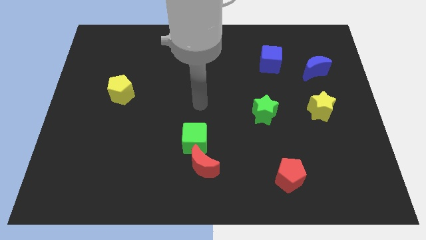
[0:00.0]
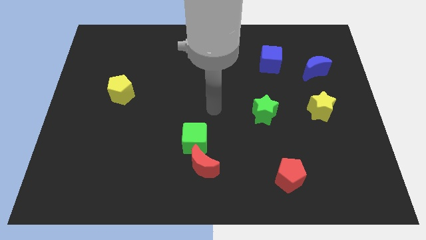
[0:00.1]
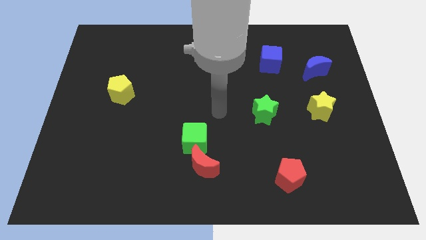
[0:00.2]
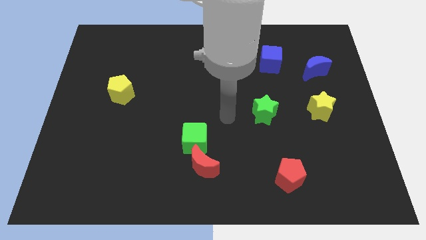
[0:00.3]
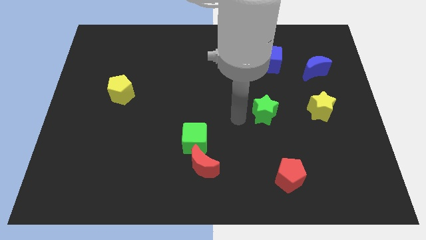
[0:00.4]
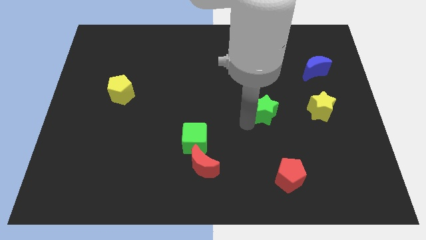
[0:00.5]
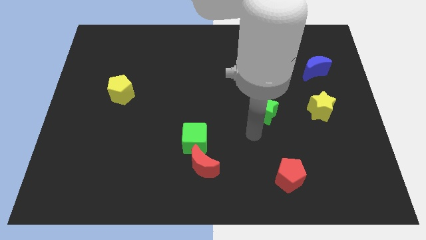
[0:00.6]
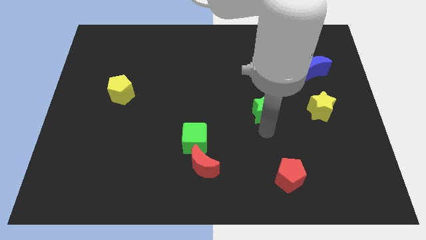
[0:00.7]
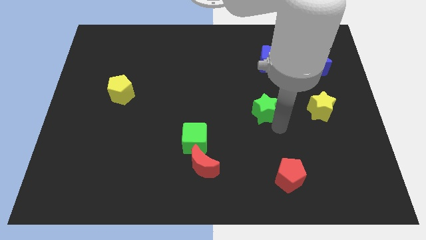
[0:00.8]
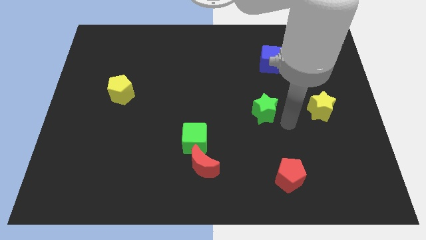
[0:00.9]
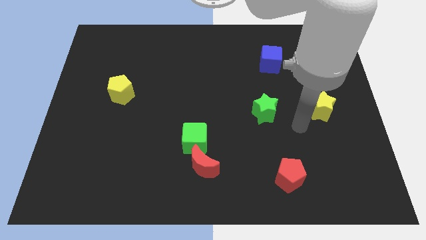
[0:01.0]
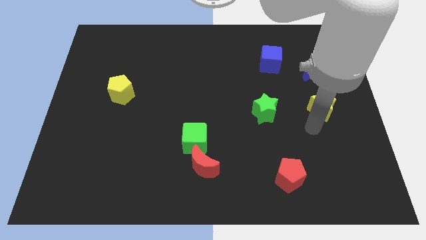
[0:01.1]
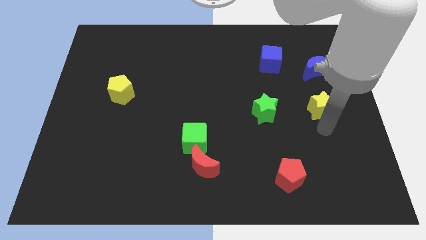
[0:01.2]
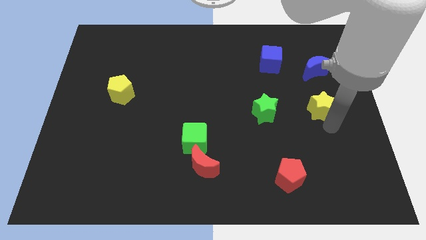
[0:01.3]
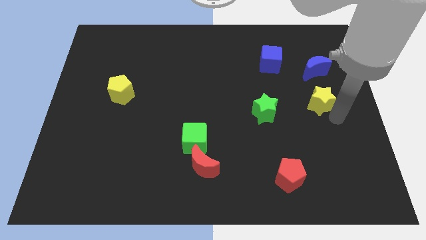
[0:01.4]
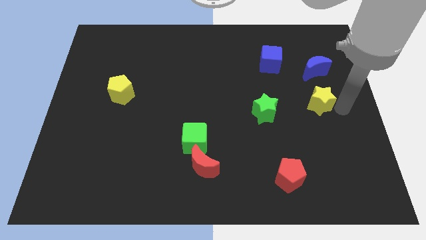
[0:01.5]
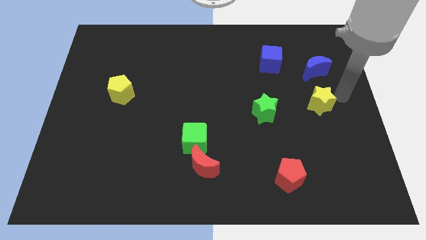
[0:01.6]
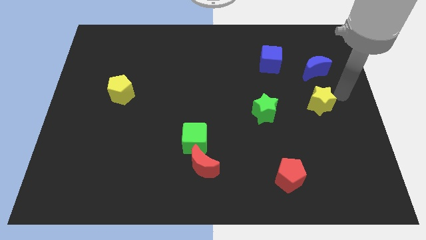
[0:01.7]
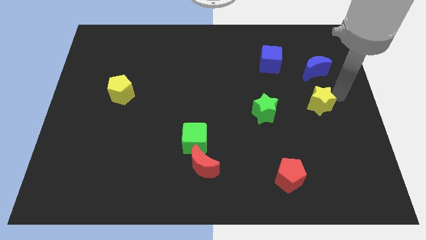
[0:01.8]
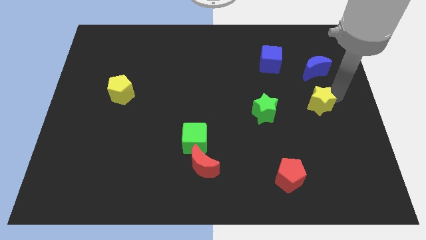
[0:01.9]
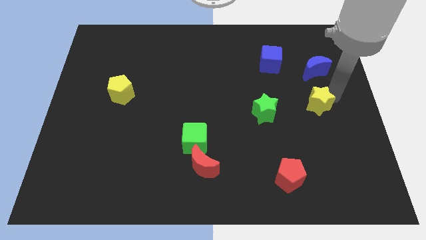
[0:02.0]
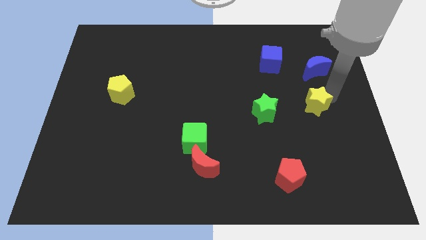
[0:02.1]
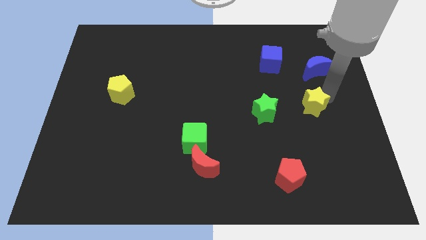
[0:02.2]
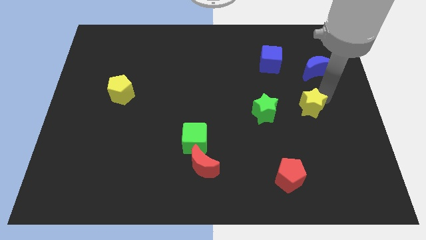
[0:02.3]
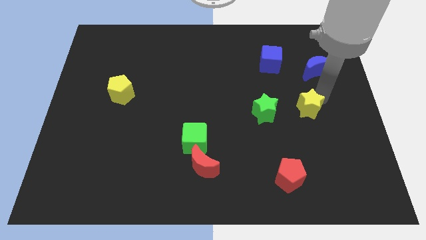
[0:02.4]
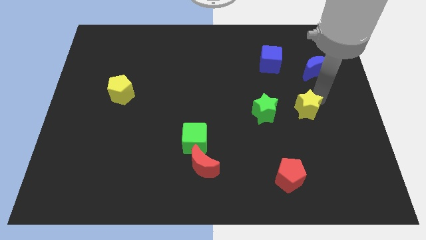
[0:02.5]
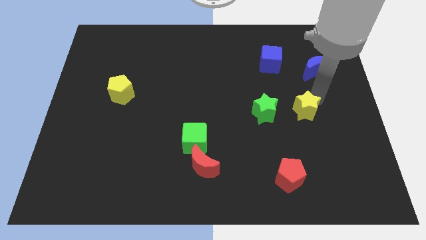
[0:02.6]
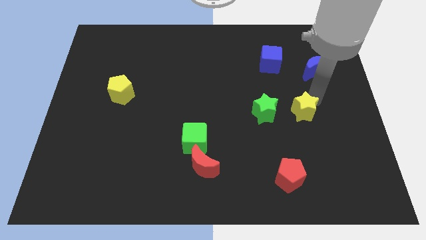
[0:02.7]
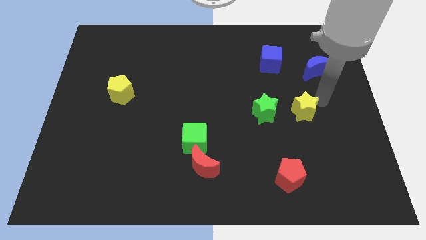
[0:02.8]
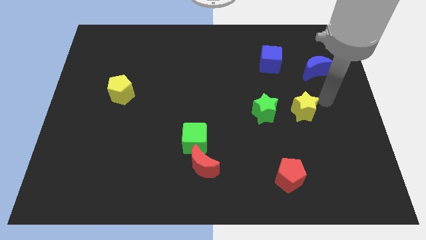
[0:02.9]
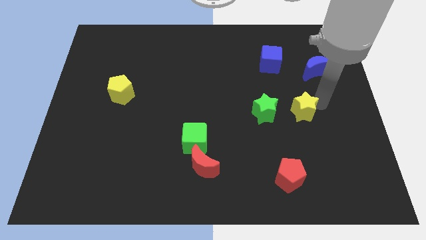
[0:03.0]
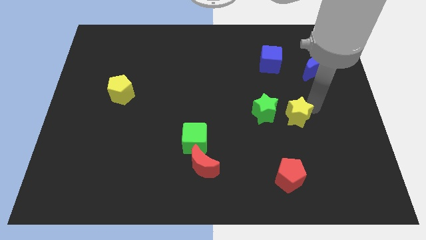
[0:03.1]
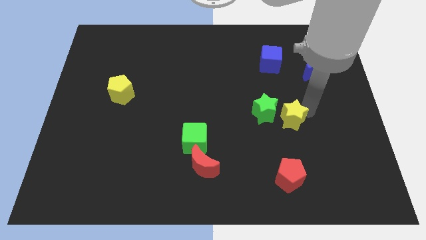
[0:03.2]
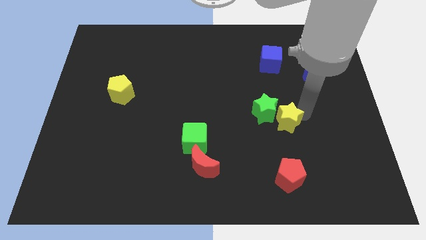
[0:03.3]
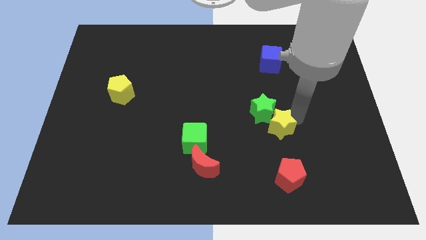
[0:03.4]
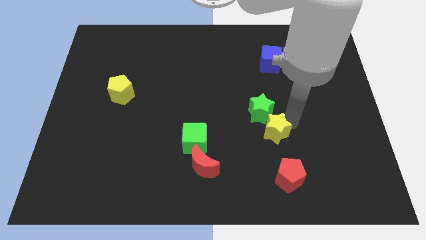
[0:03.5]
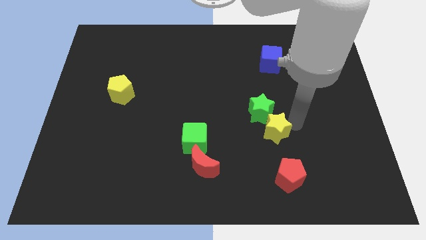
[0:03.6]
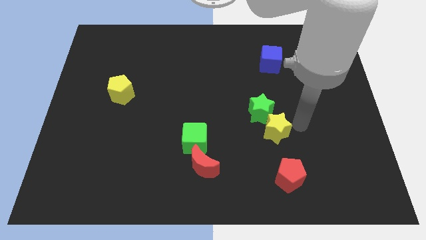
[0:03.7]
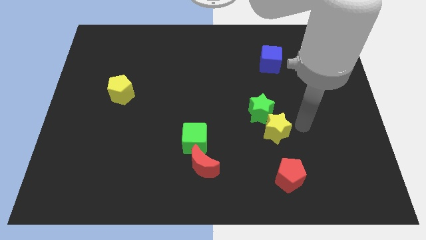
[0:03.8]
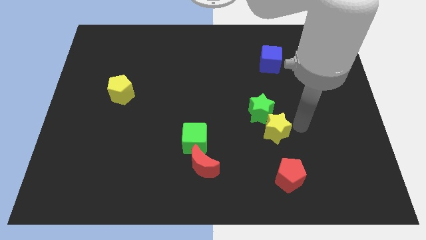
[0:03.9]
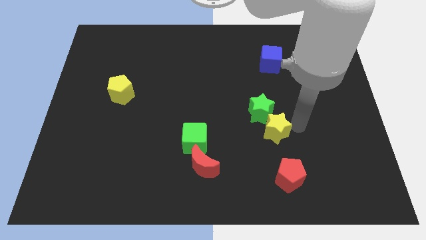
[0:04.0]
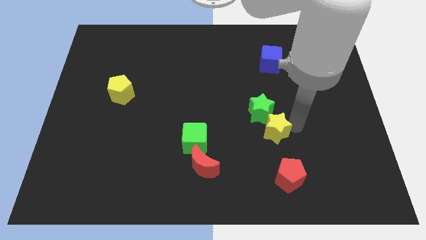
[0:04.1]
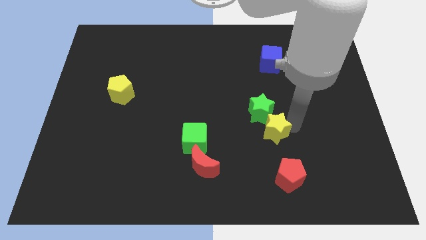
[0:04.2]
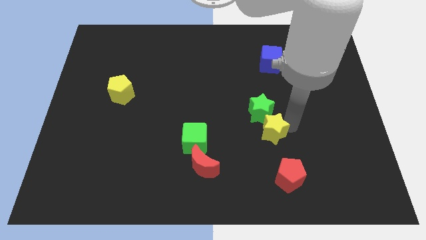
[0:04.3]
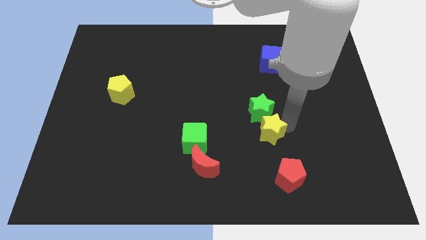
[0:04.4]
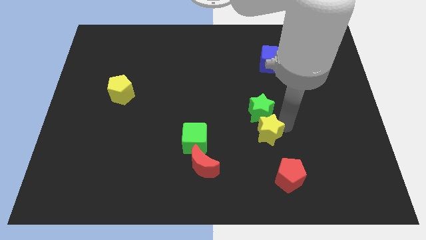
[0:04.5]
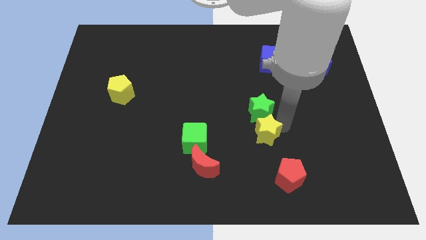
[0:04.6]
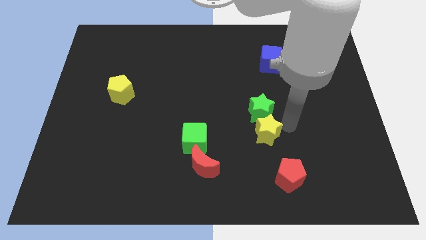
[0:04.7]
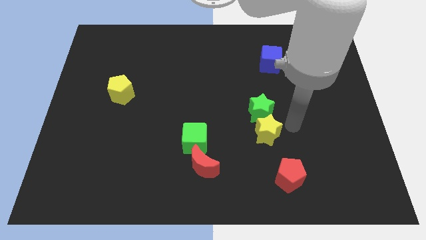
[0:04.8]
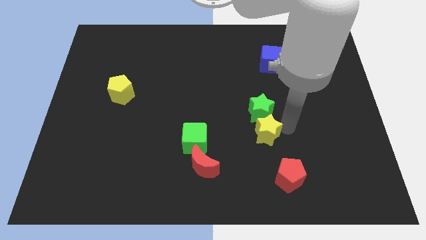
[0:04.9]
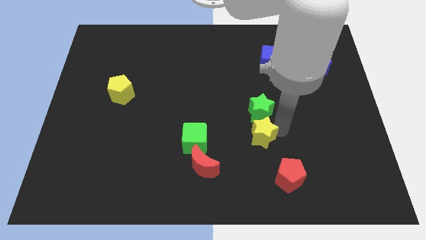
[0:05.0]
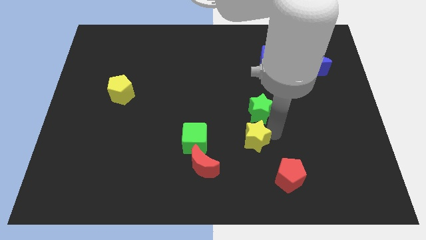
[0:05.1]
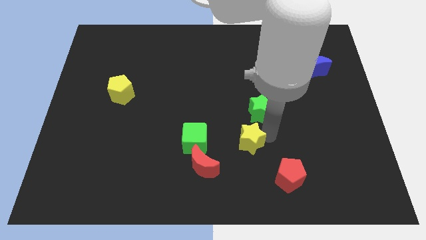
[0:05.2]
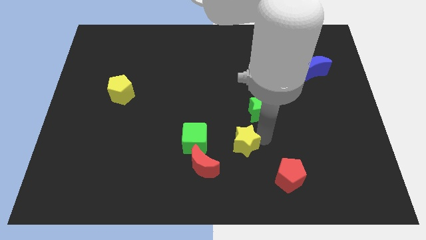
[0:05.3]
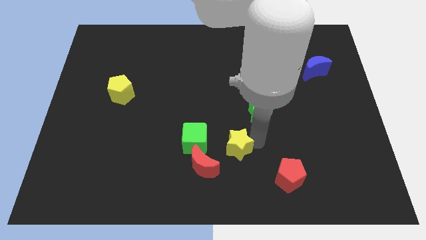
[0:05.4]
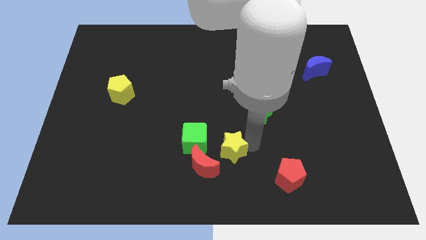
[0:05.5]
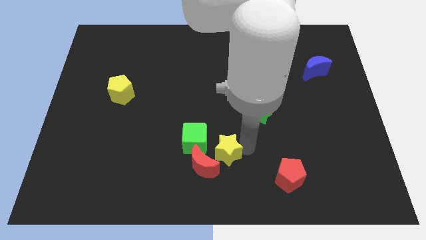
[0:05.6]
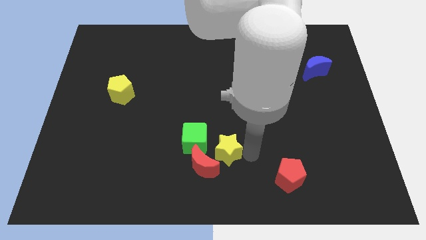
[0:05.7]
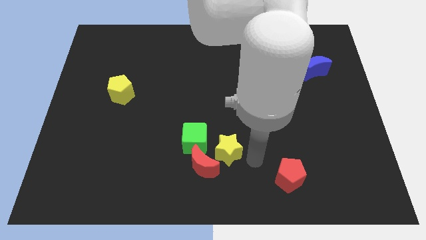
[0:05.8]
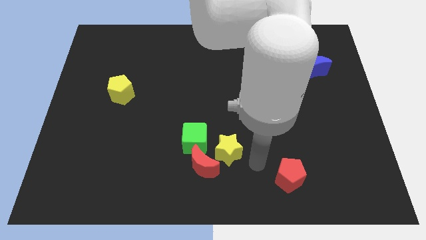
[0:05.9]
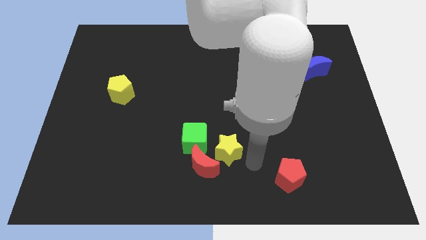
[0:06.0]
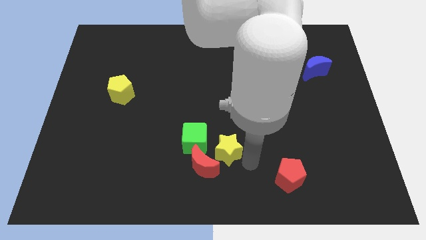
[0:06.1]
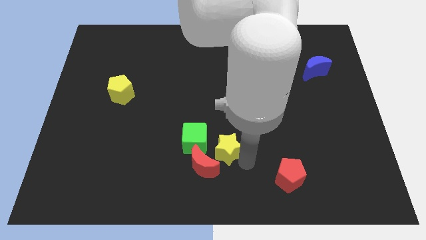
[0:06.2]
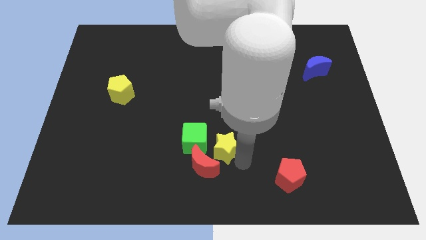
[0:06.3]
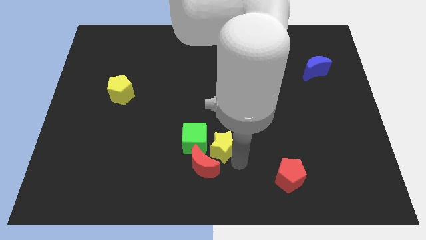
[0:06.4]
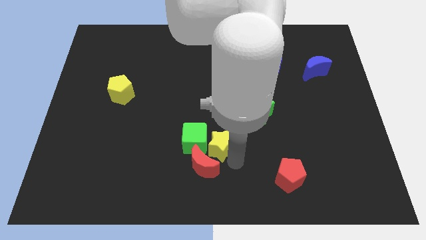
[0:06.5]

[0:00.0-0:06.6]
push the yellow star towards the green cube

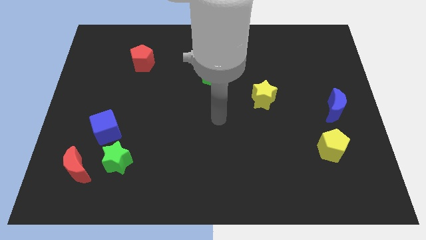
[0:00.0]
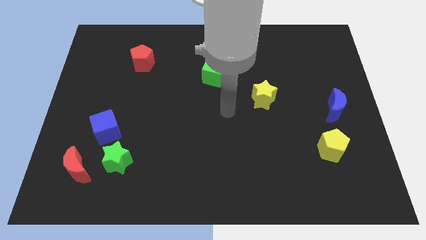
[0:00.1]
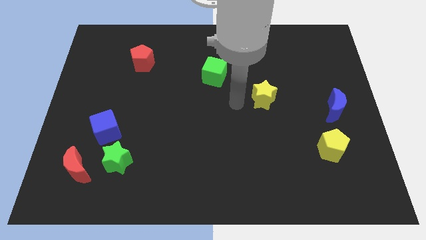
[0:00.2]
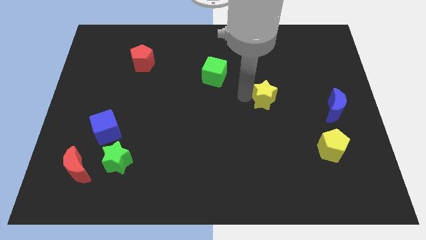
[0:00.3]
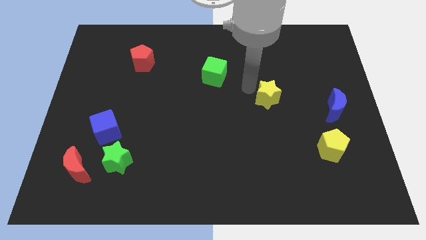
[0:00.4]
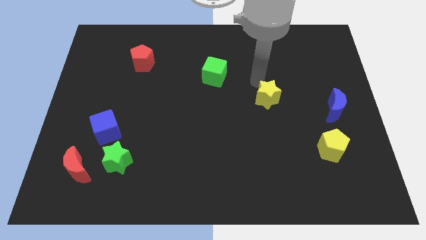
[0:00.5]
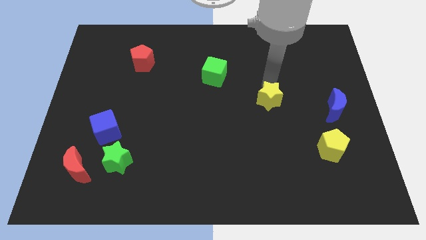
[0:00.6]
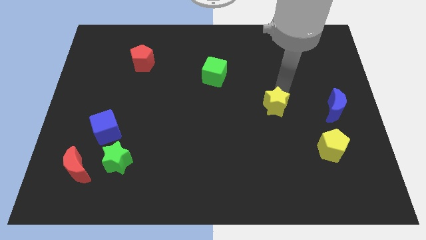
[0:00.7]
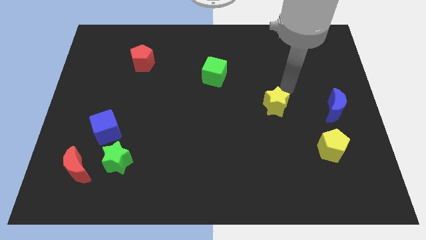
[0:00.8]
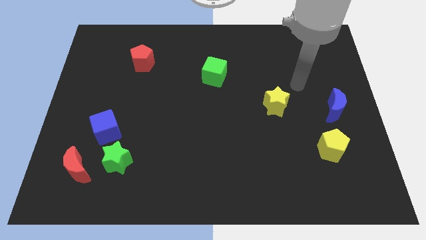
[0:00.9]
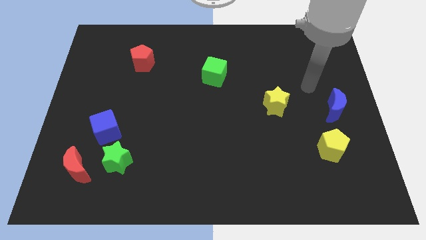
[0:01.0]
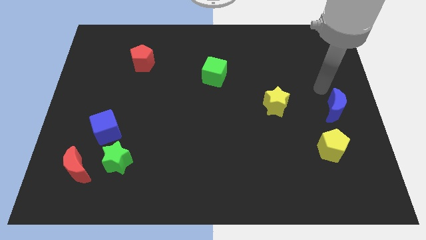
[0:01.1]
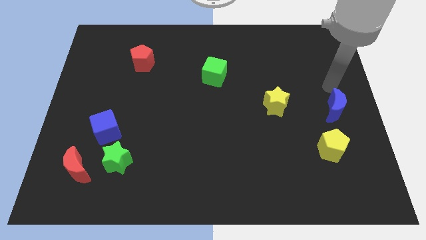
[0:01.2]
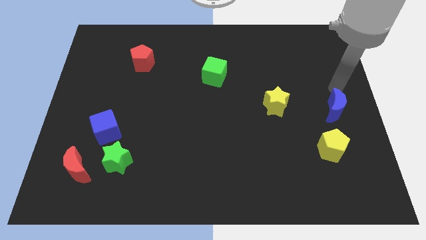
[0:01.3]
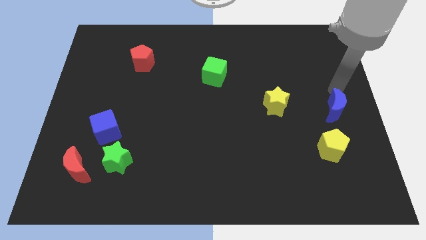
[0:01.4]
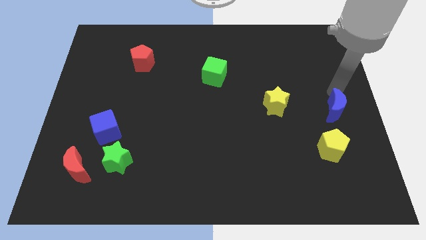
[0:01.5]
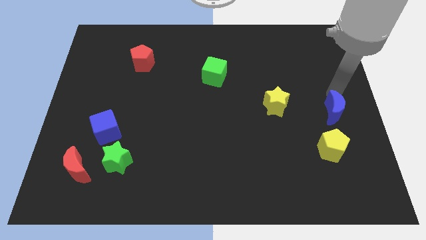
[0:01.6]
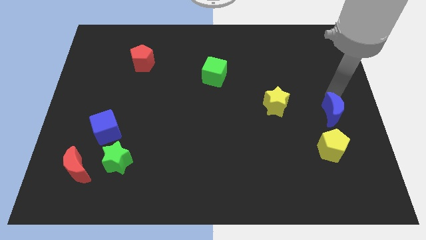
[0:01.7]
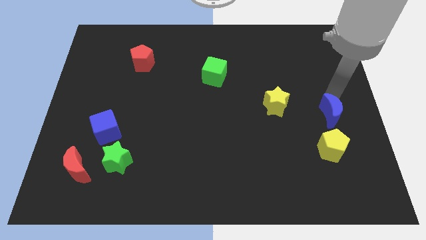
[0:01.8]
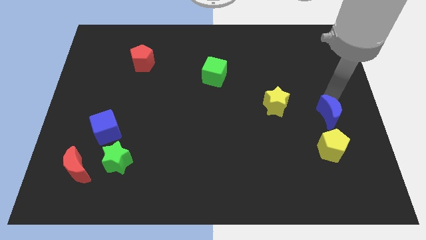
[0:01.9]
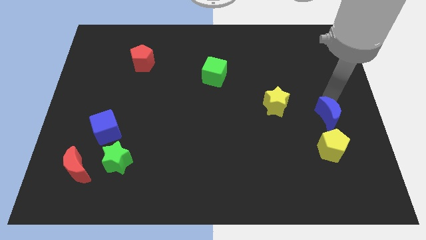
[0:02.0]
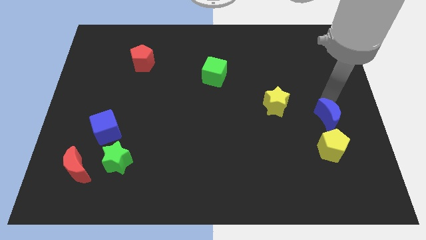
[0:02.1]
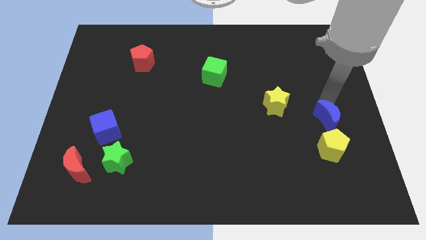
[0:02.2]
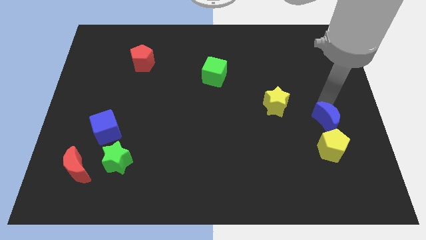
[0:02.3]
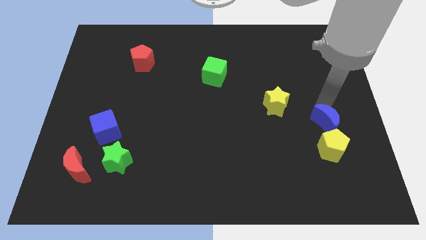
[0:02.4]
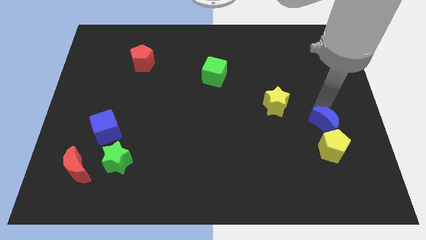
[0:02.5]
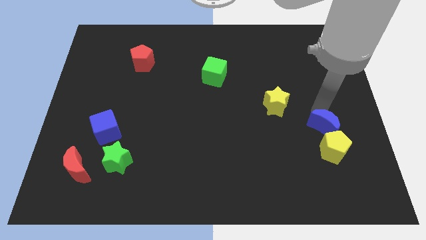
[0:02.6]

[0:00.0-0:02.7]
move the blue moon close to the yellow pentagon
